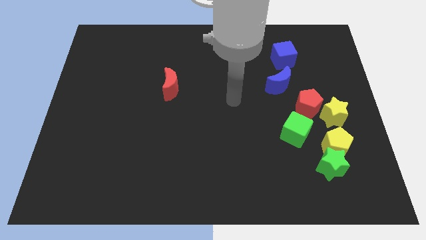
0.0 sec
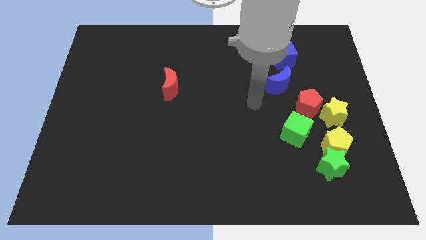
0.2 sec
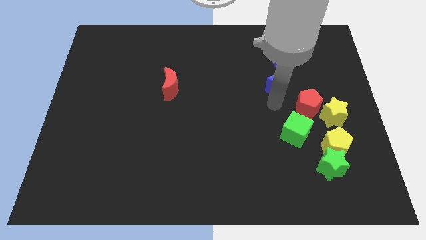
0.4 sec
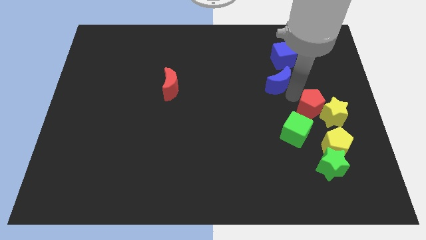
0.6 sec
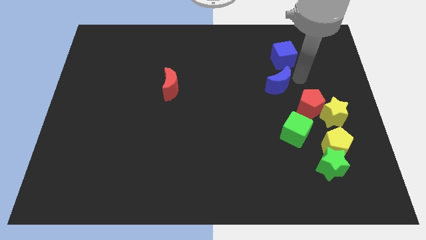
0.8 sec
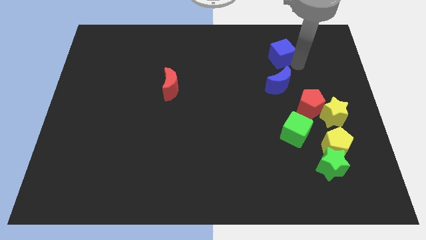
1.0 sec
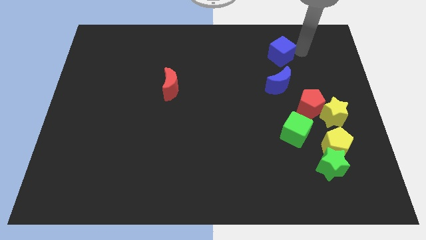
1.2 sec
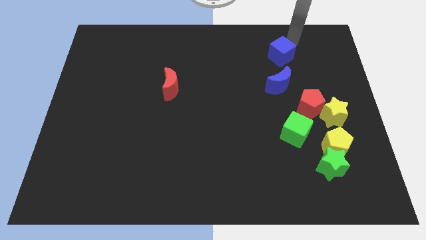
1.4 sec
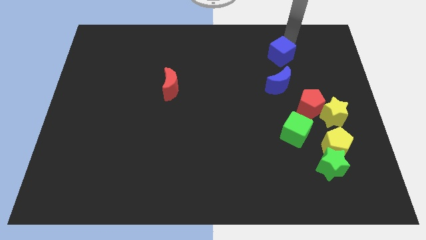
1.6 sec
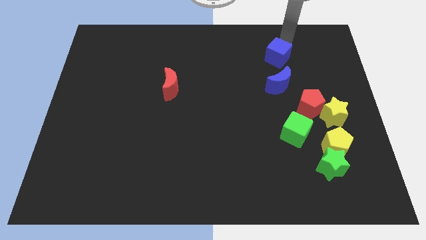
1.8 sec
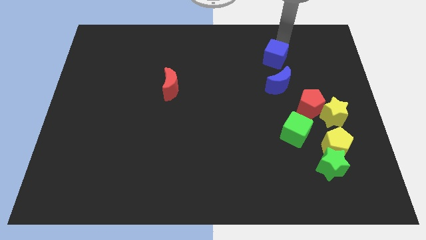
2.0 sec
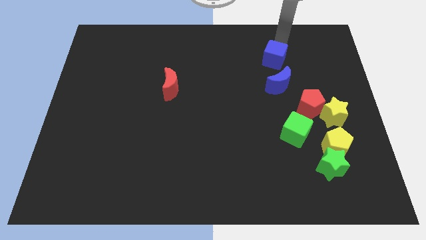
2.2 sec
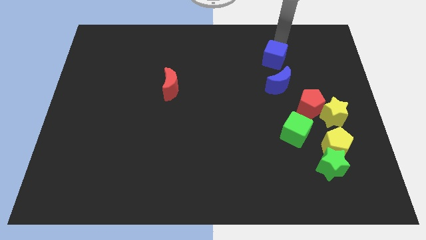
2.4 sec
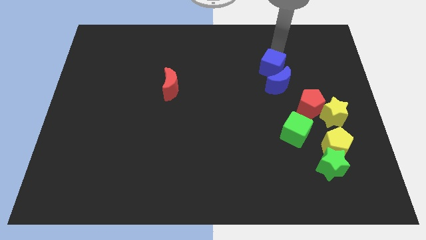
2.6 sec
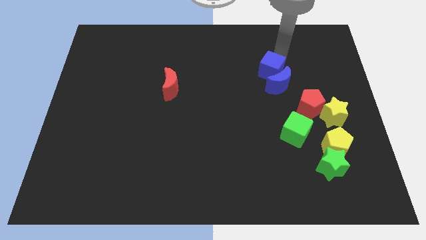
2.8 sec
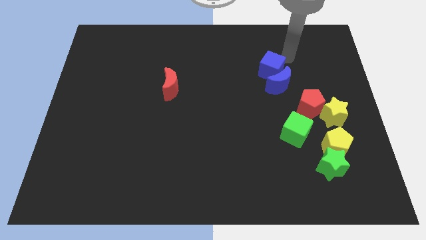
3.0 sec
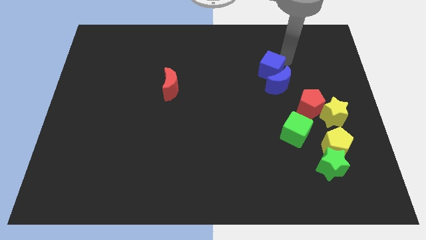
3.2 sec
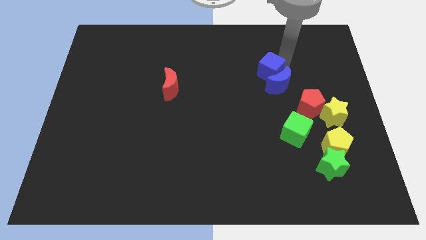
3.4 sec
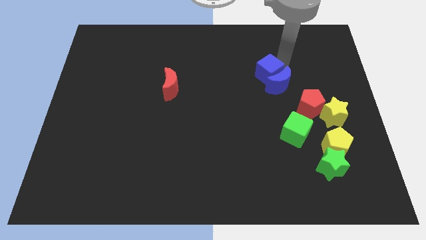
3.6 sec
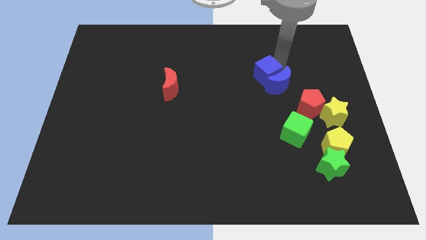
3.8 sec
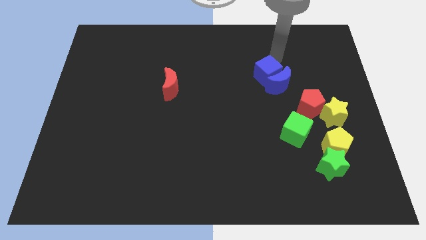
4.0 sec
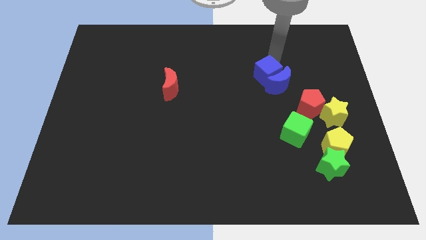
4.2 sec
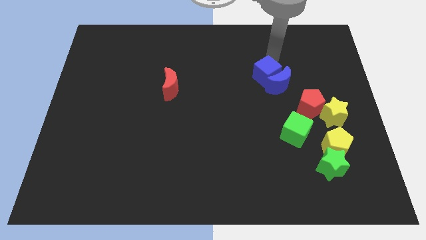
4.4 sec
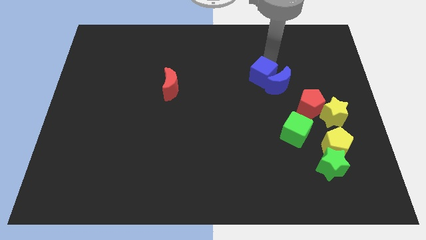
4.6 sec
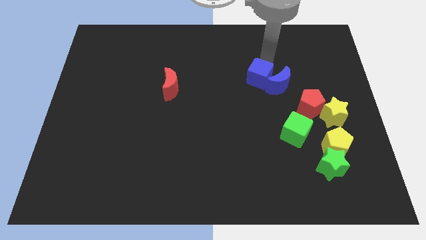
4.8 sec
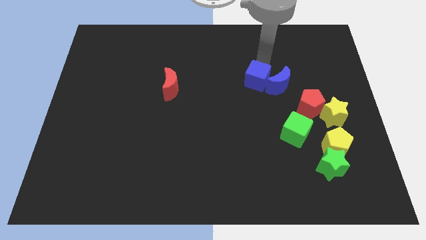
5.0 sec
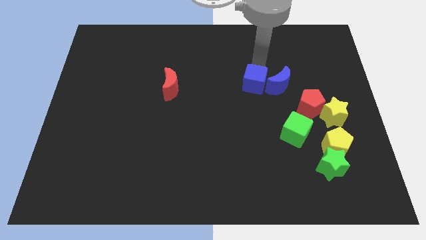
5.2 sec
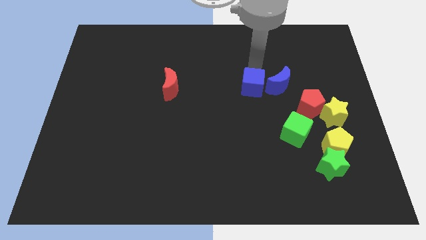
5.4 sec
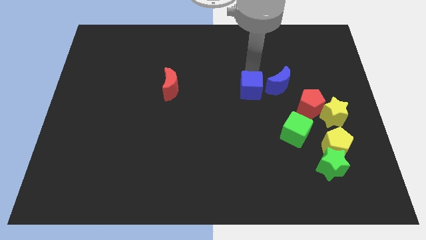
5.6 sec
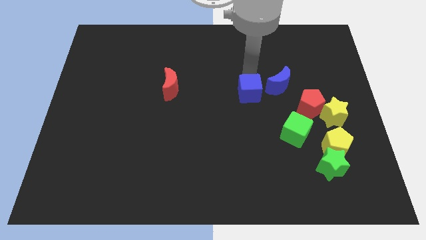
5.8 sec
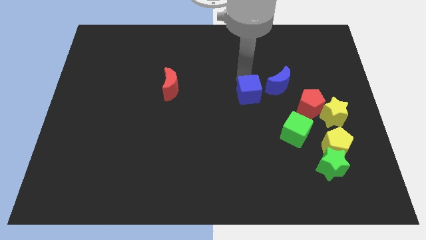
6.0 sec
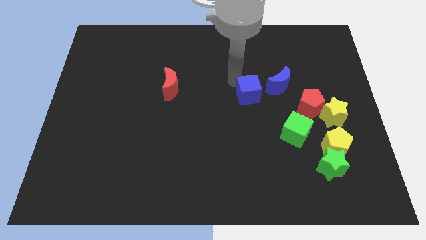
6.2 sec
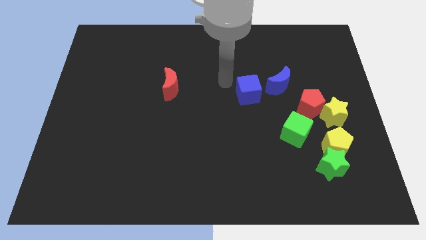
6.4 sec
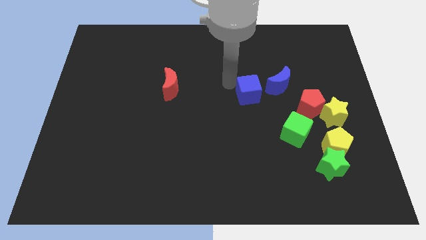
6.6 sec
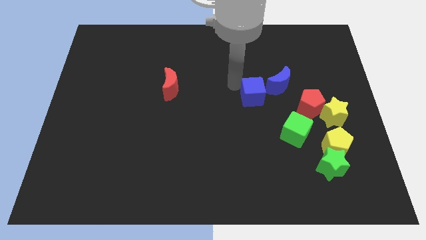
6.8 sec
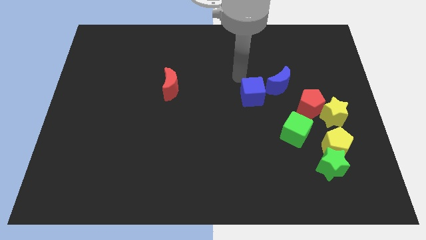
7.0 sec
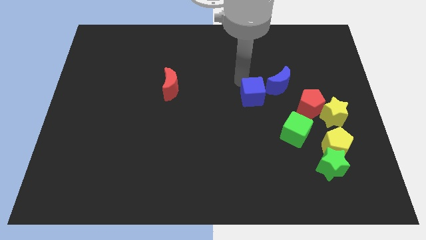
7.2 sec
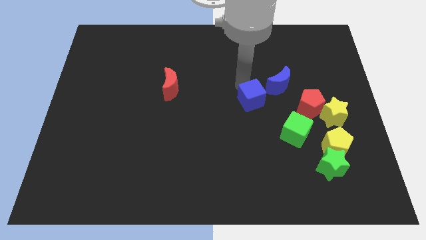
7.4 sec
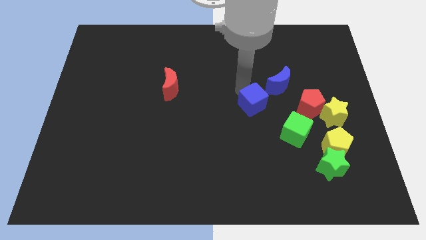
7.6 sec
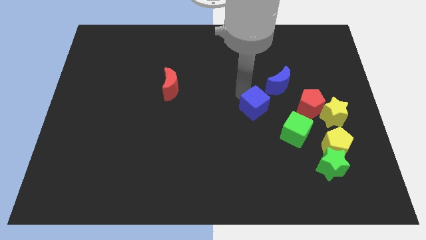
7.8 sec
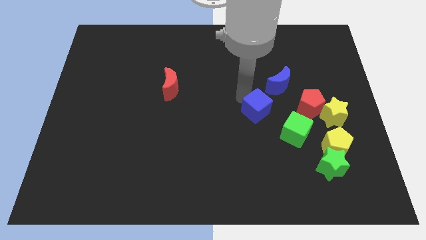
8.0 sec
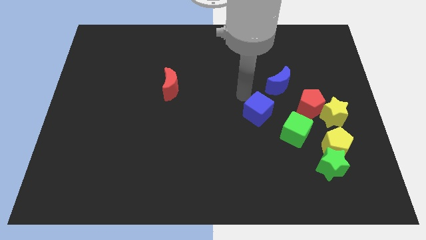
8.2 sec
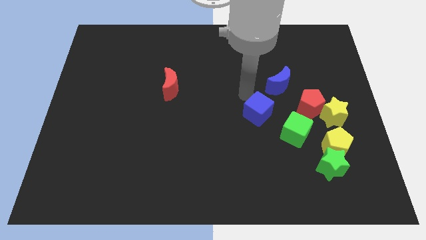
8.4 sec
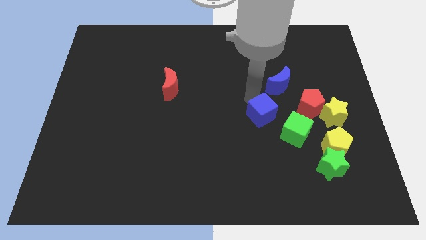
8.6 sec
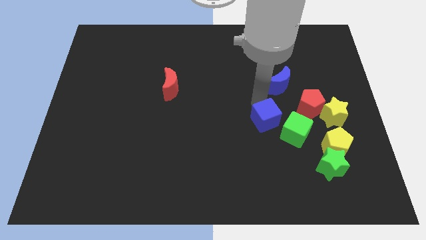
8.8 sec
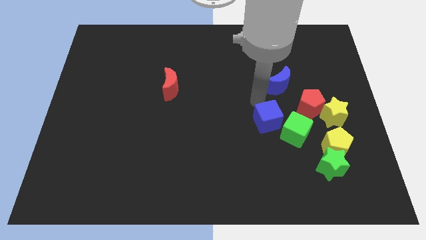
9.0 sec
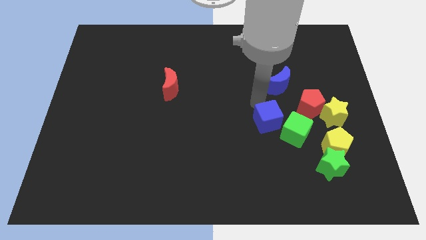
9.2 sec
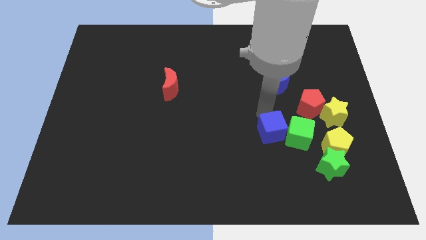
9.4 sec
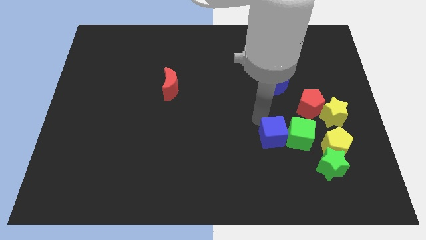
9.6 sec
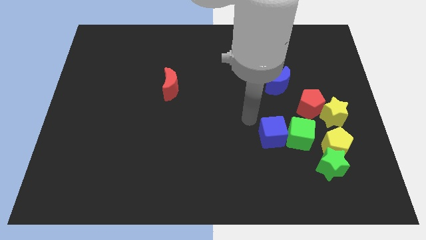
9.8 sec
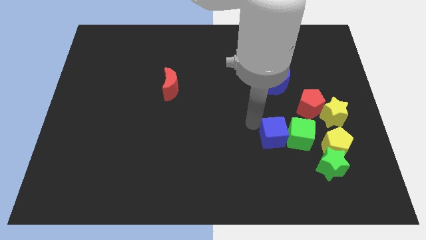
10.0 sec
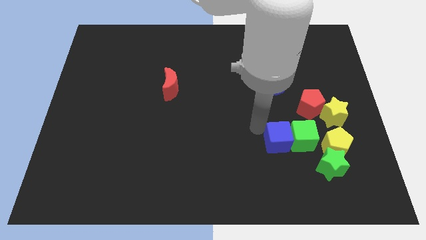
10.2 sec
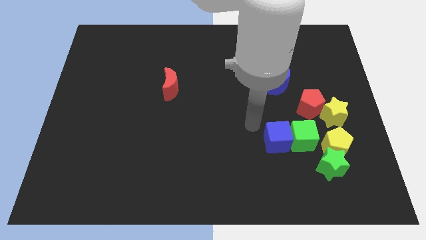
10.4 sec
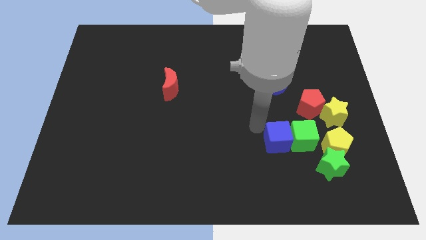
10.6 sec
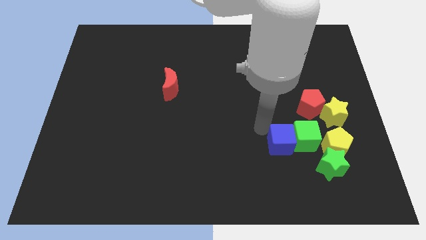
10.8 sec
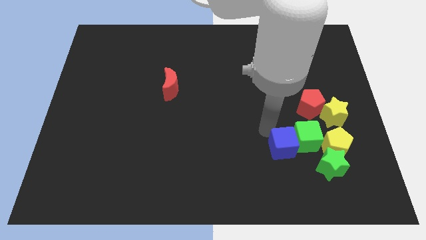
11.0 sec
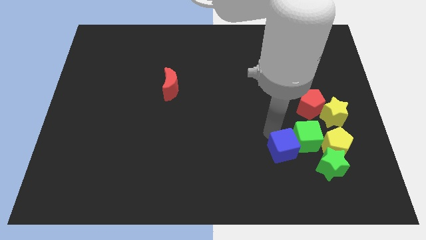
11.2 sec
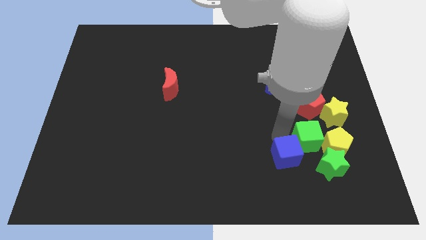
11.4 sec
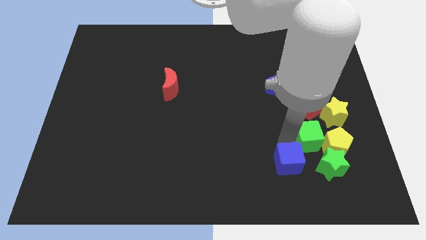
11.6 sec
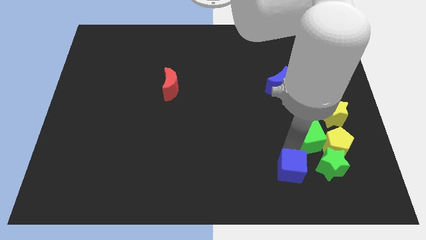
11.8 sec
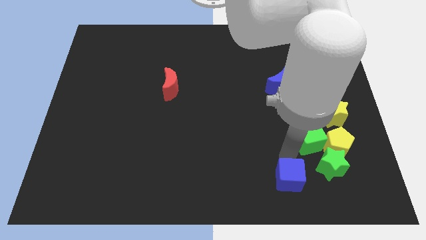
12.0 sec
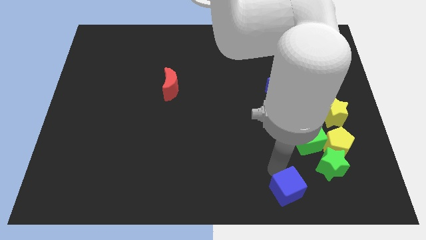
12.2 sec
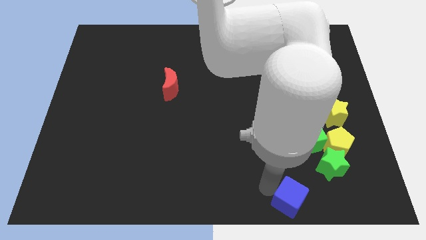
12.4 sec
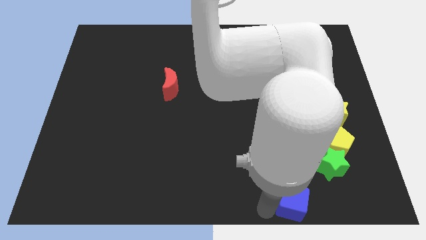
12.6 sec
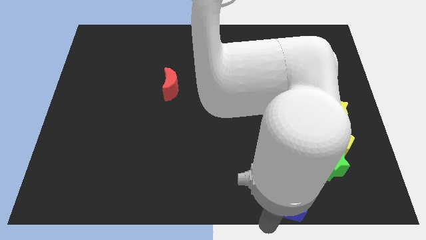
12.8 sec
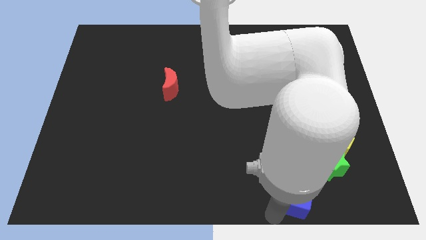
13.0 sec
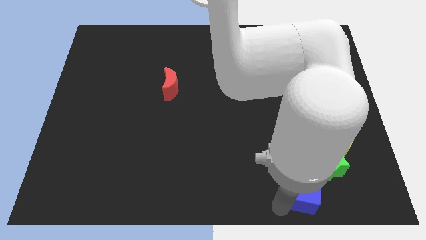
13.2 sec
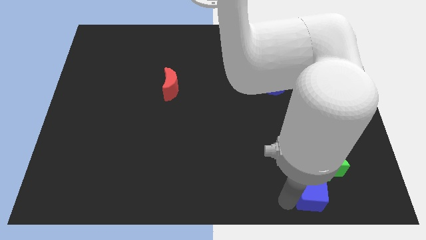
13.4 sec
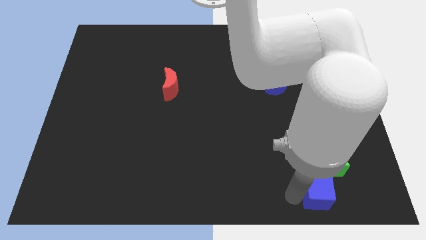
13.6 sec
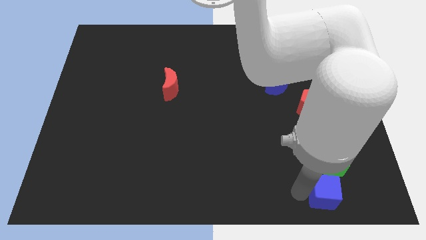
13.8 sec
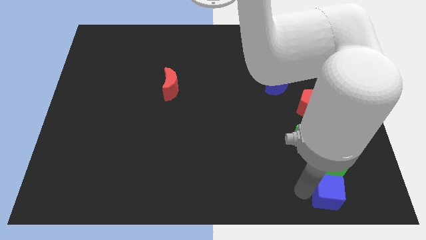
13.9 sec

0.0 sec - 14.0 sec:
push the blue cube close to the green star
